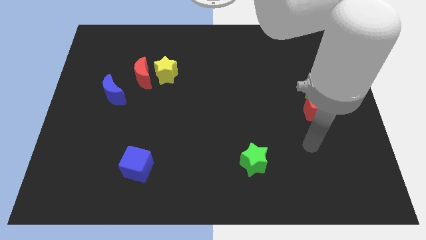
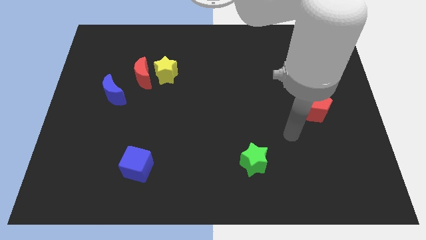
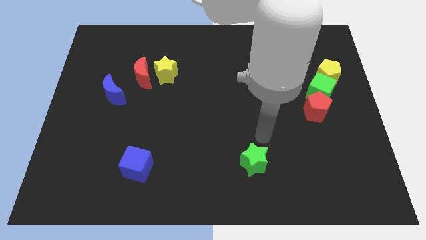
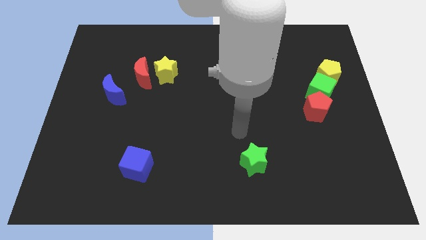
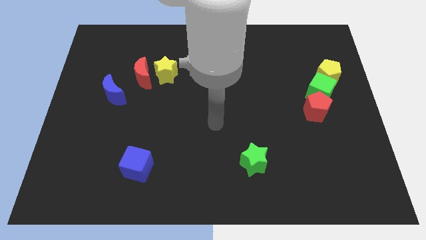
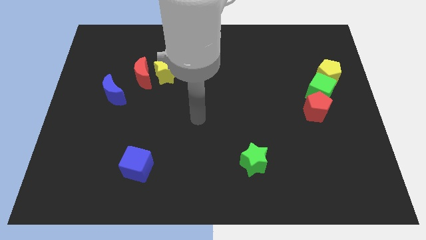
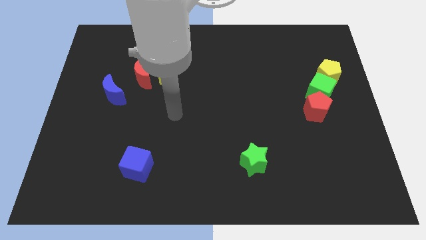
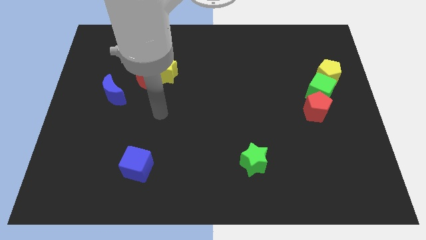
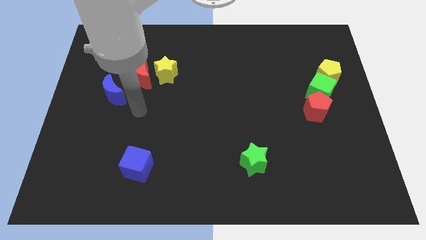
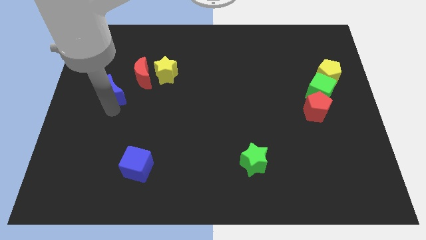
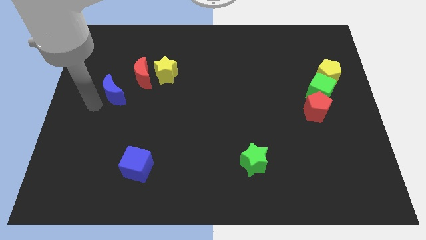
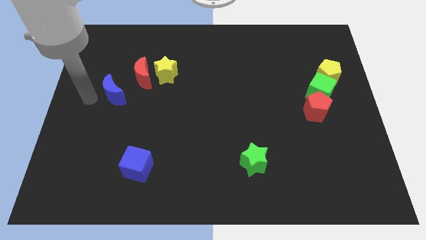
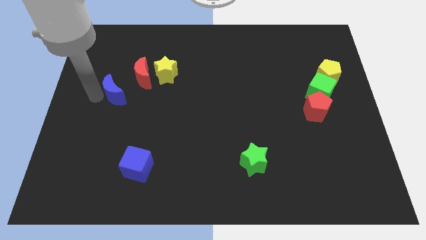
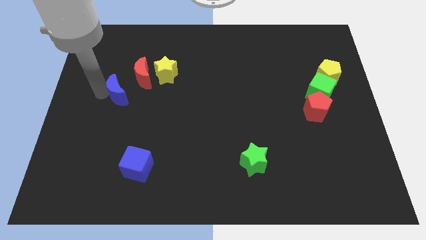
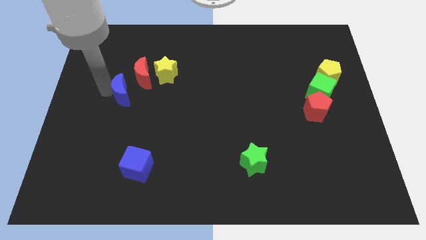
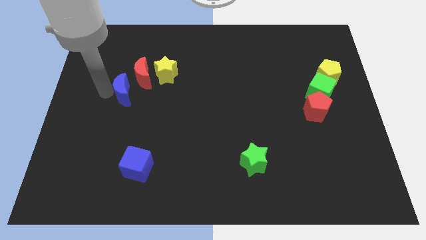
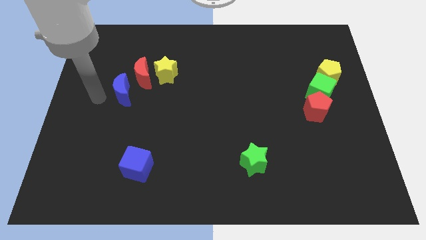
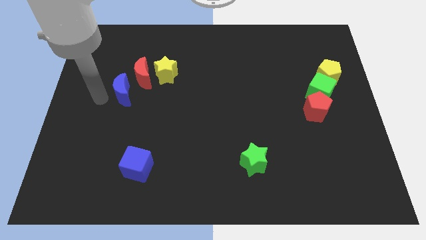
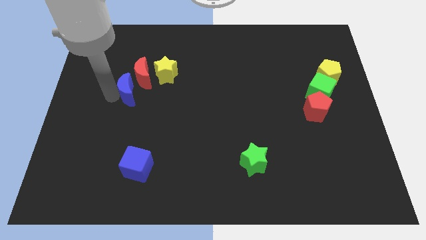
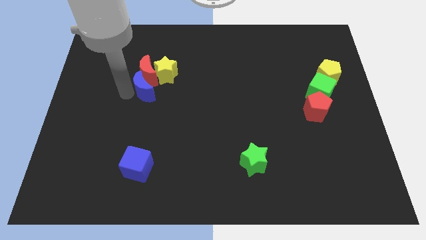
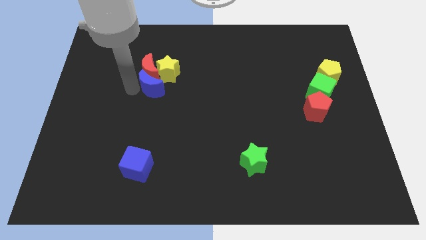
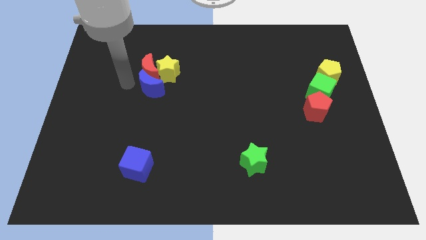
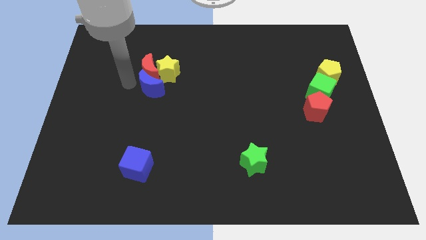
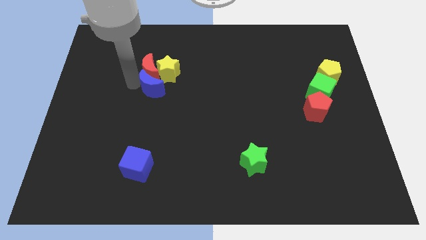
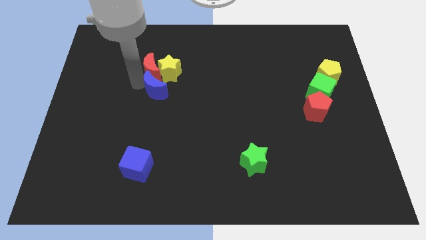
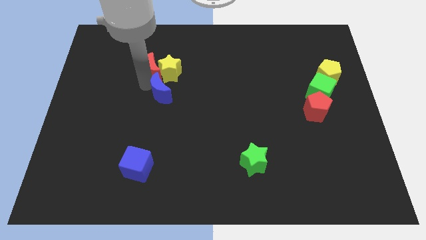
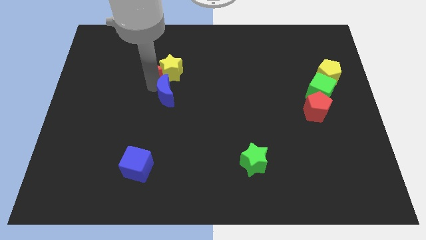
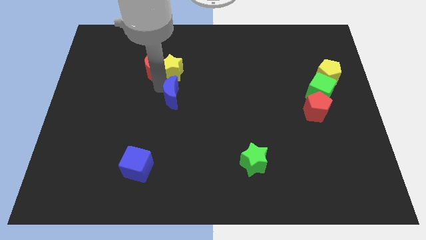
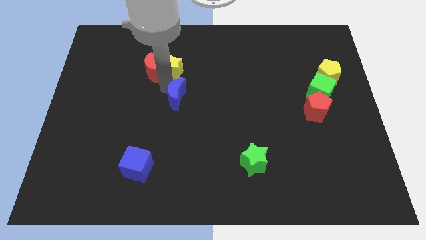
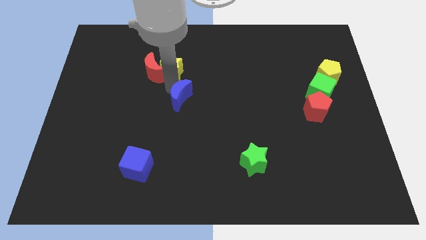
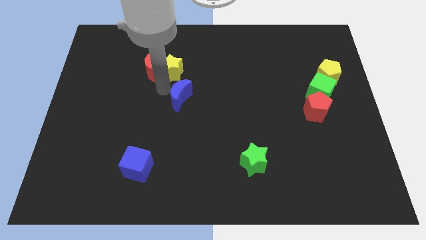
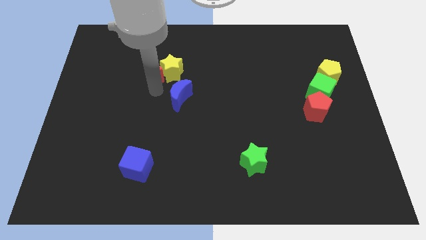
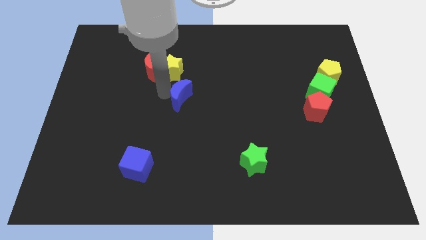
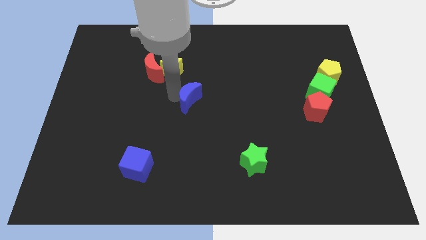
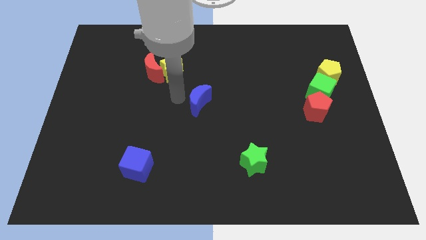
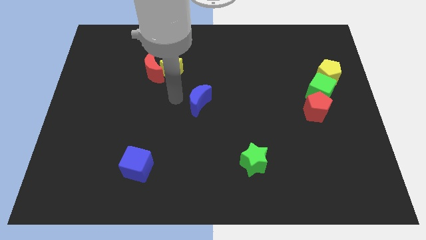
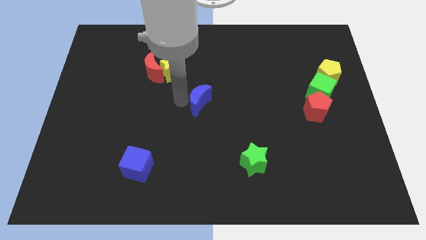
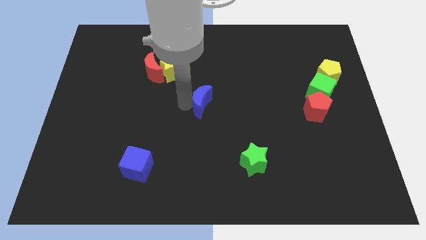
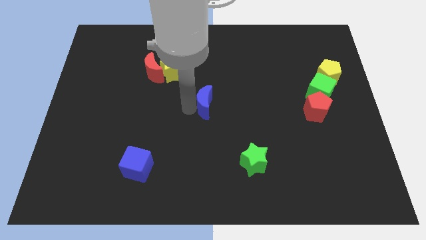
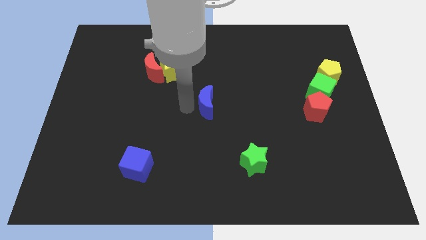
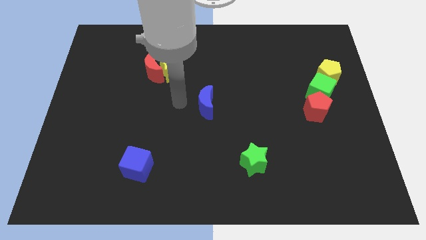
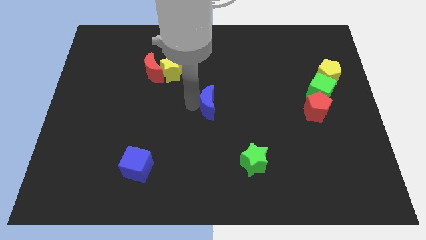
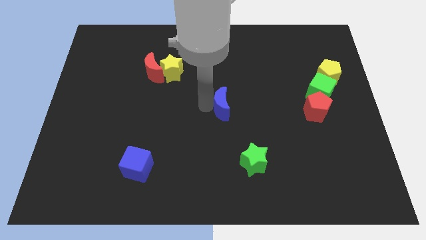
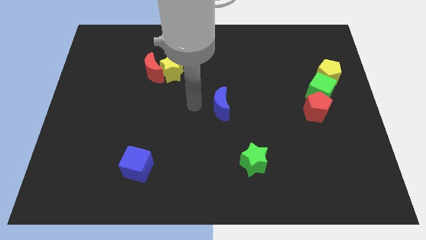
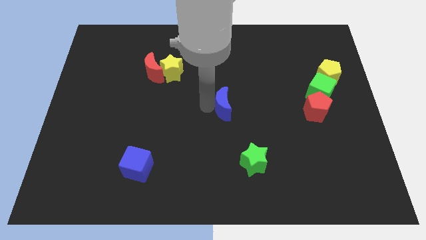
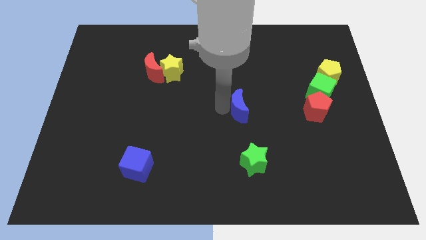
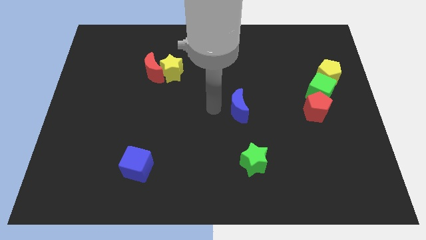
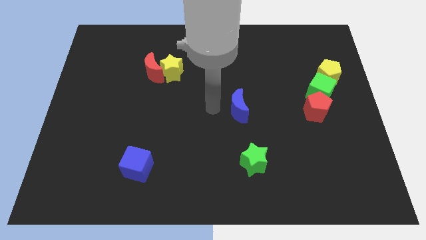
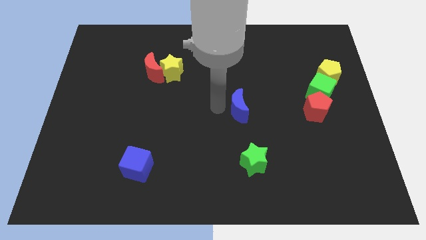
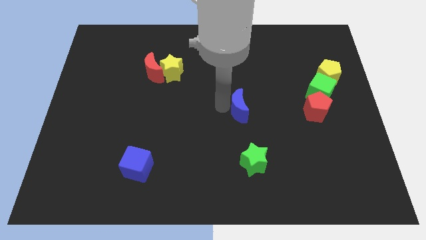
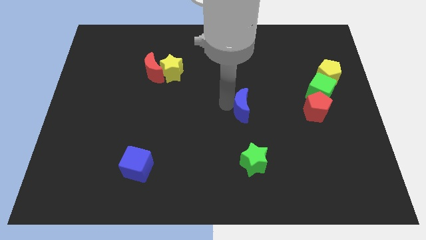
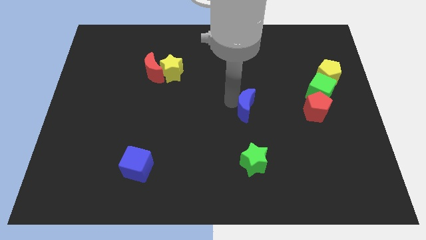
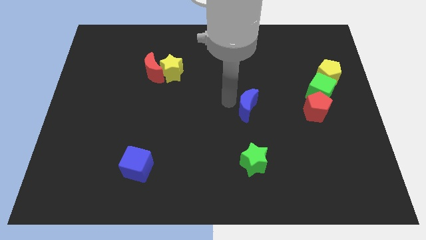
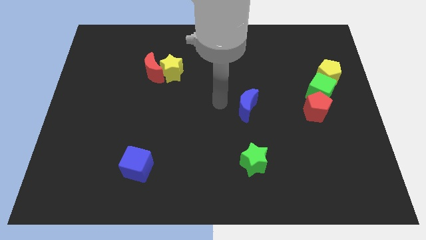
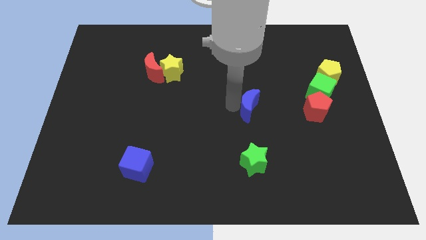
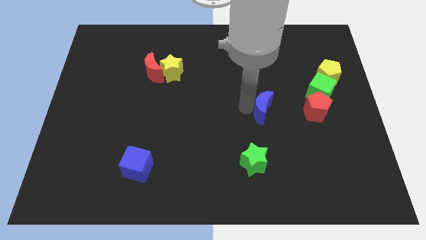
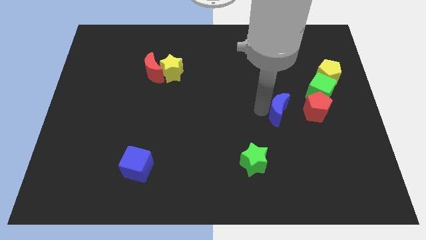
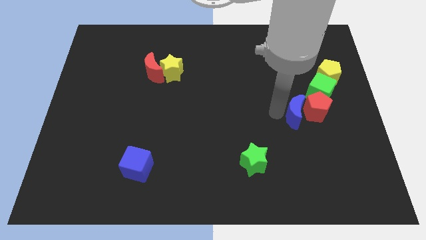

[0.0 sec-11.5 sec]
push the blue moon next to the red pentagon

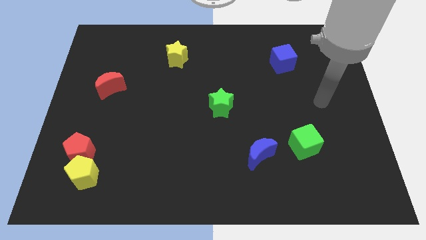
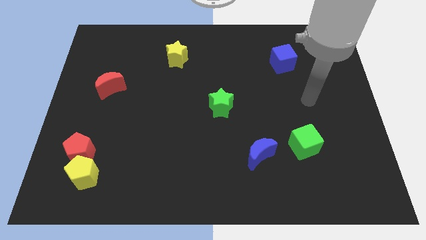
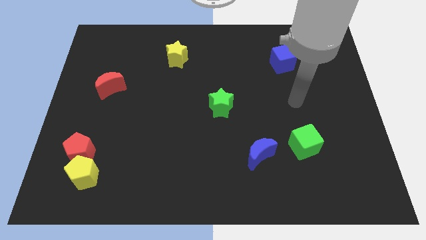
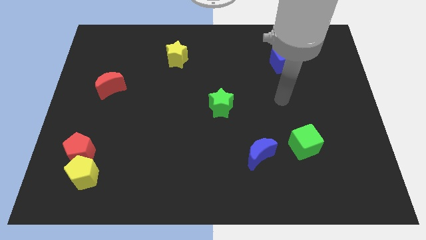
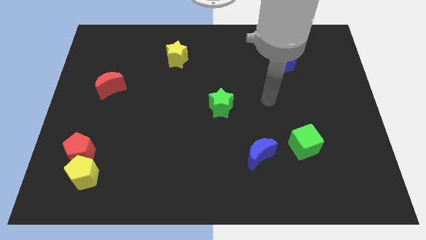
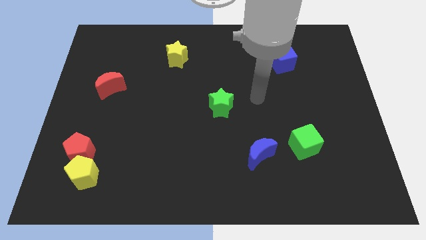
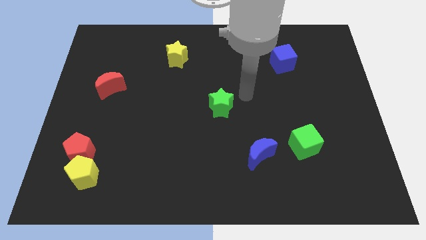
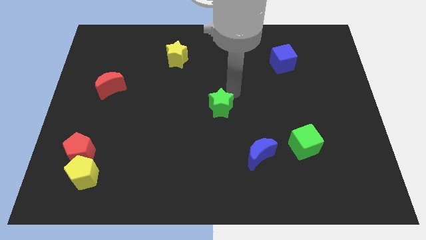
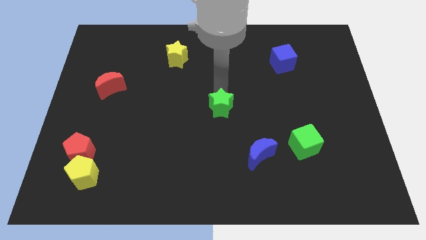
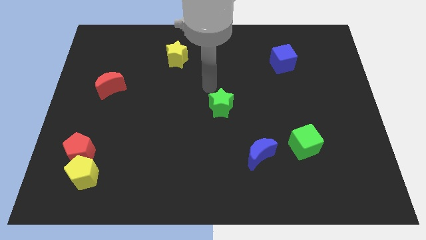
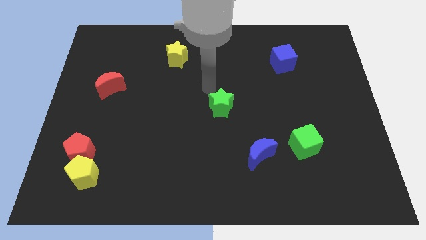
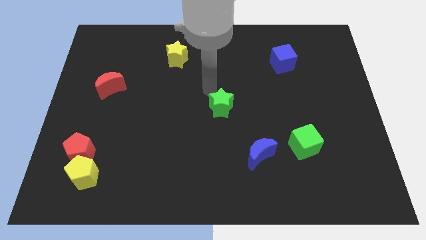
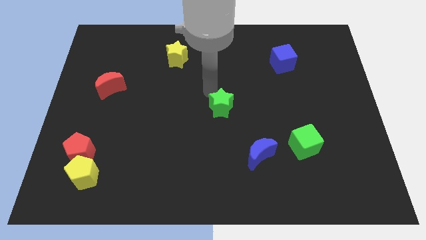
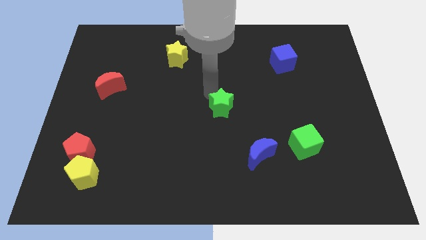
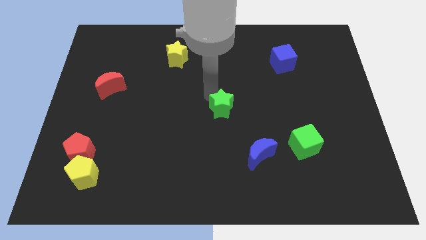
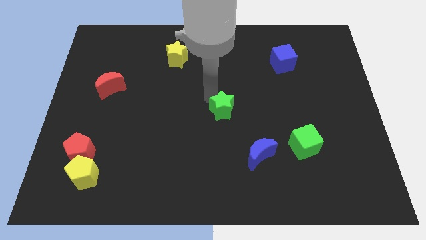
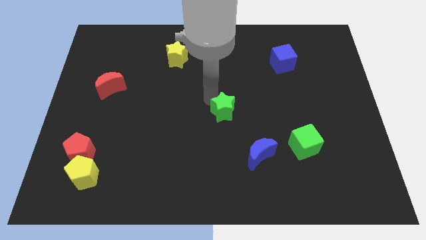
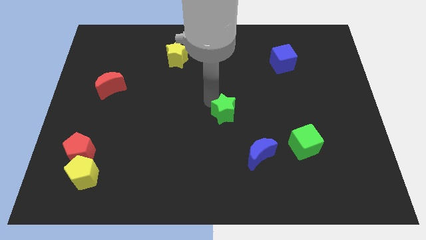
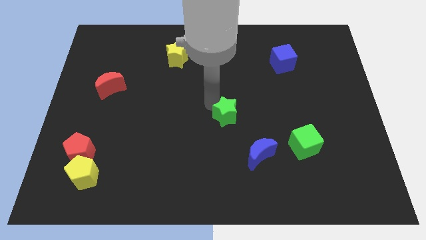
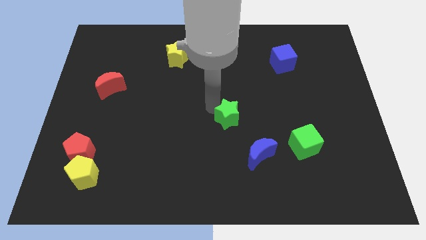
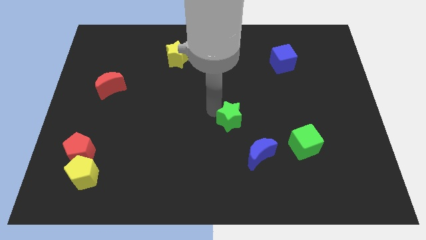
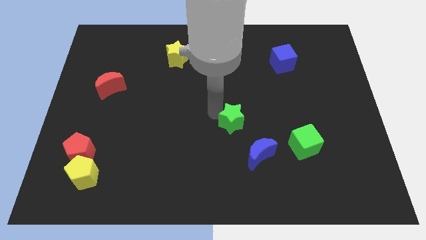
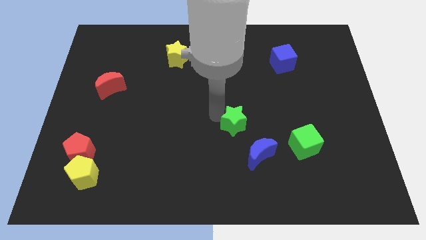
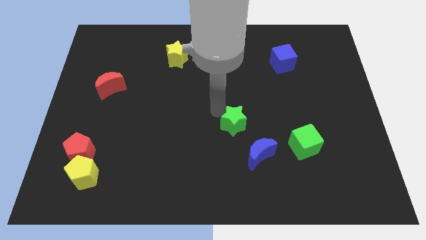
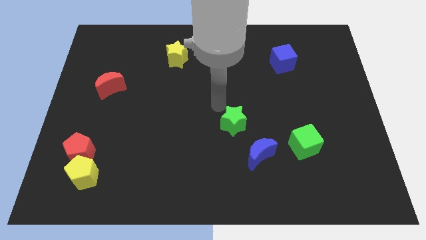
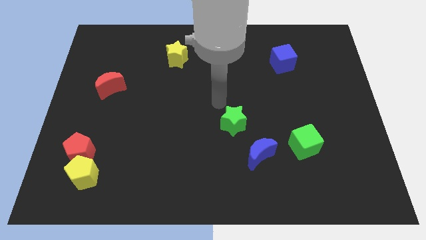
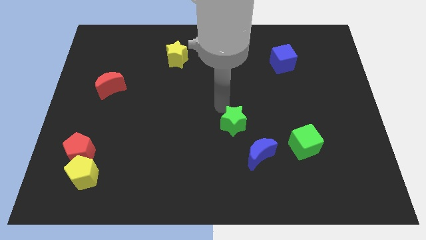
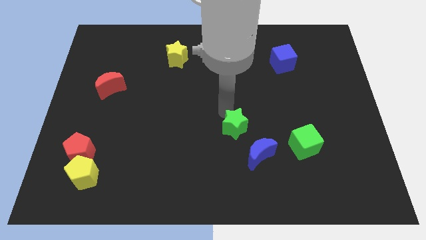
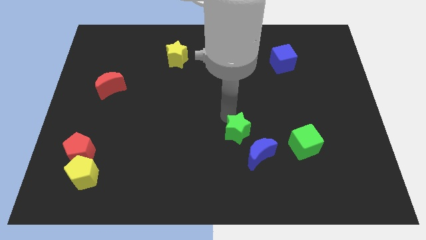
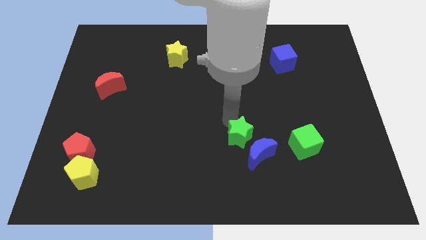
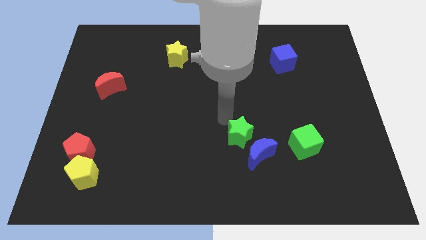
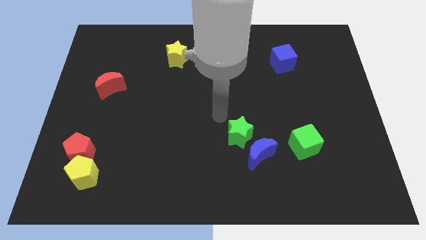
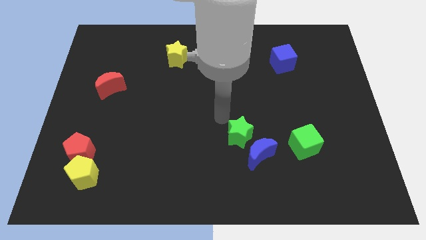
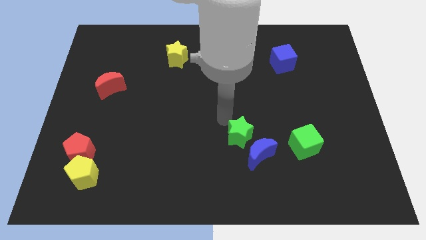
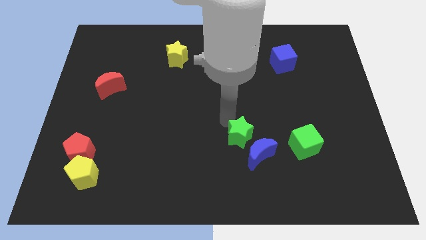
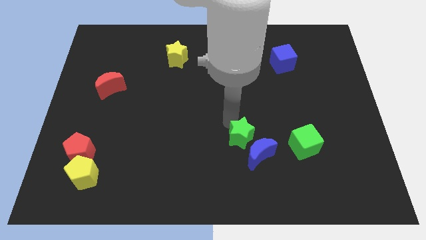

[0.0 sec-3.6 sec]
move the green star to the blue moon
